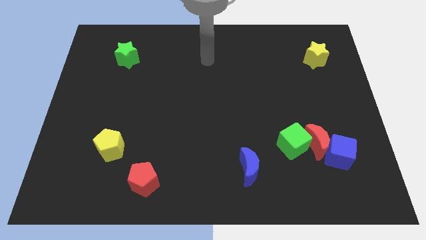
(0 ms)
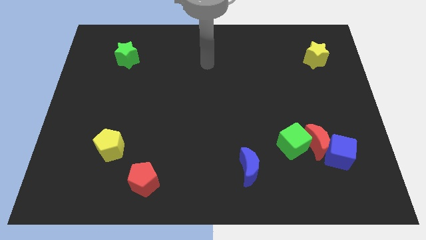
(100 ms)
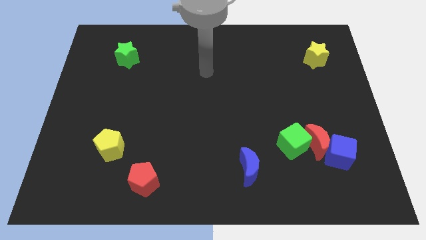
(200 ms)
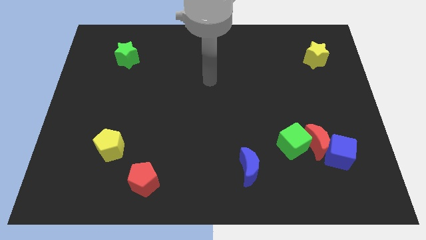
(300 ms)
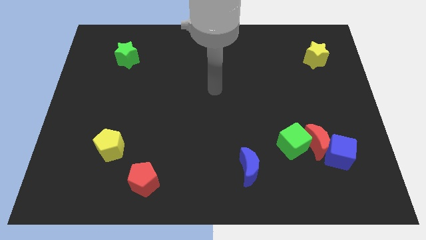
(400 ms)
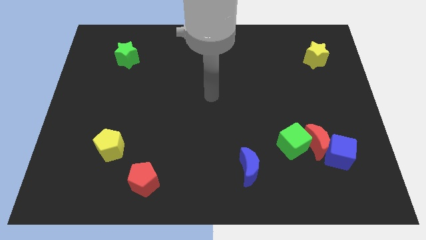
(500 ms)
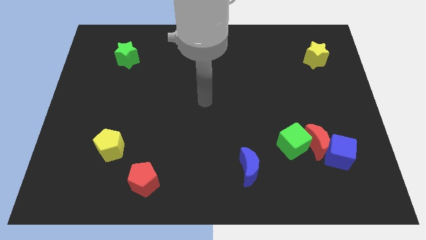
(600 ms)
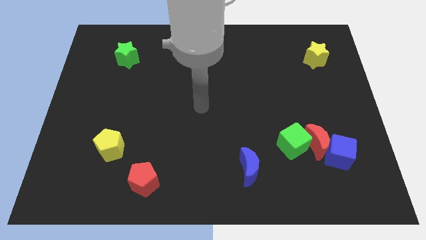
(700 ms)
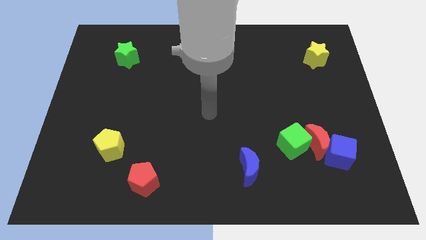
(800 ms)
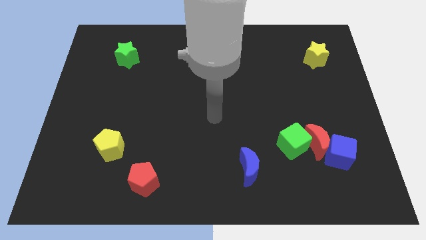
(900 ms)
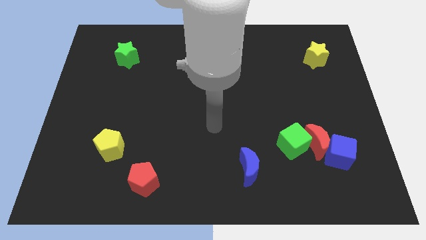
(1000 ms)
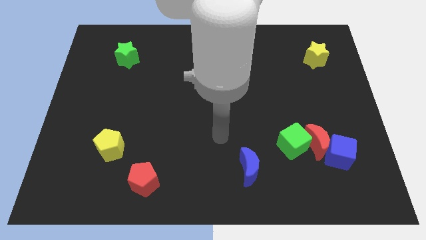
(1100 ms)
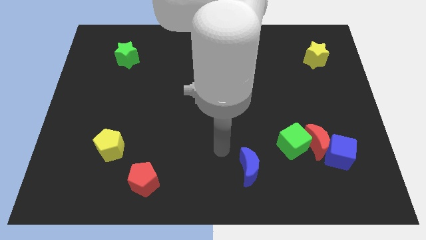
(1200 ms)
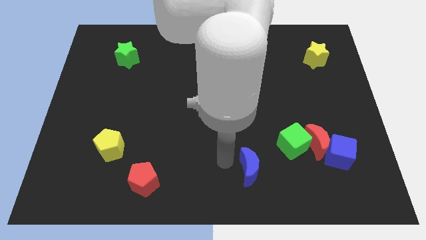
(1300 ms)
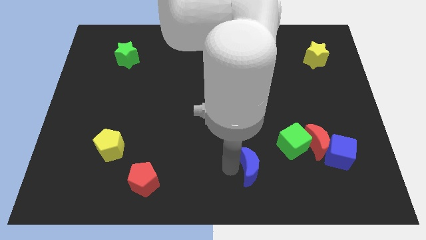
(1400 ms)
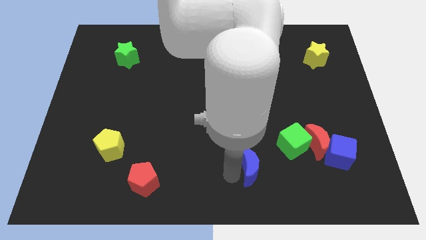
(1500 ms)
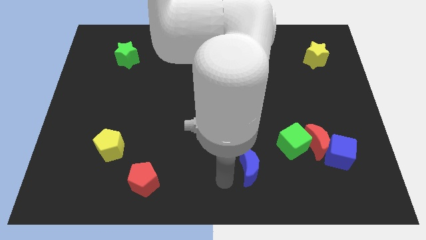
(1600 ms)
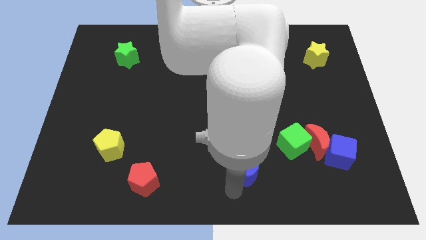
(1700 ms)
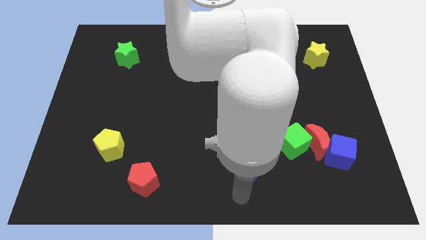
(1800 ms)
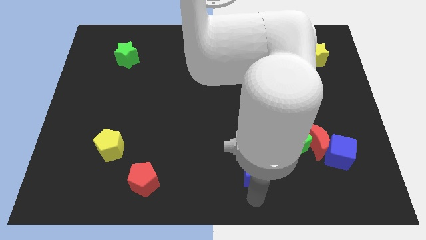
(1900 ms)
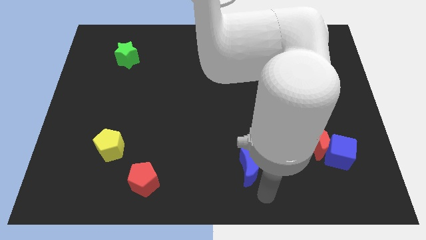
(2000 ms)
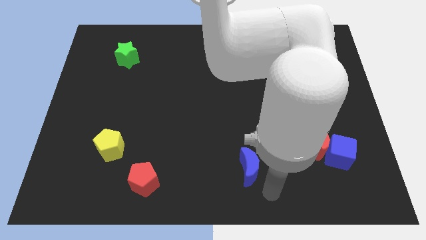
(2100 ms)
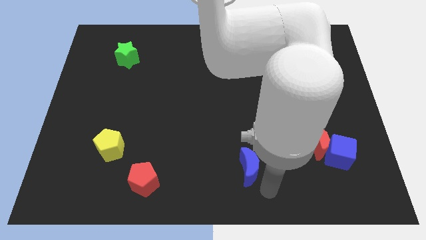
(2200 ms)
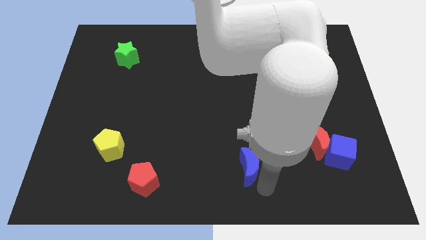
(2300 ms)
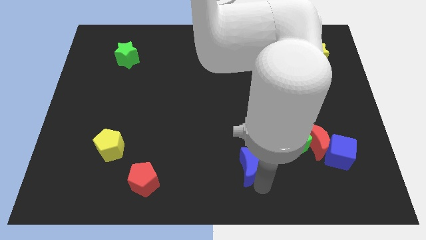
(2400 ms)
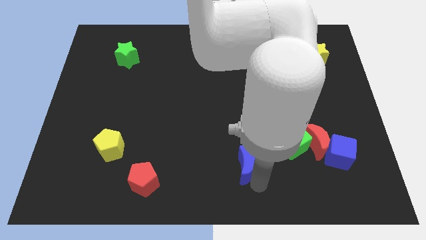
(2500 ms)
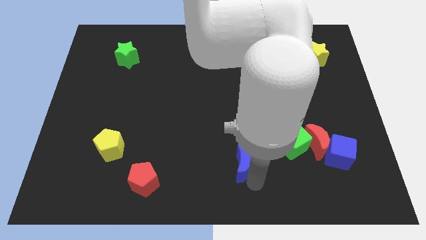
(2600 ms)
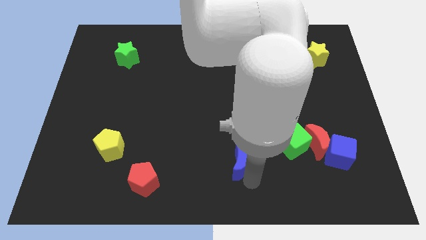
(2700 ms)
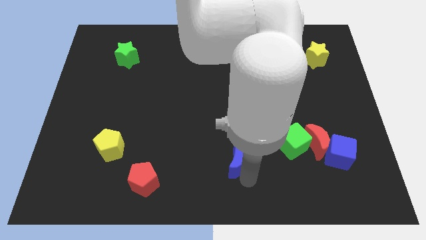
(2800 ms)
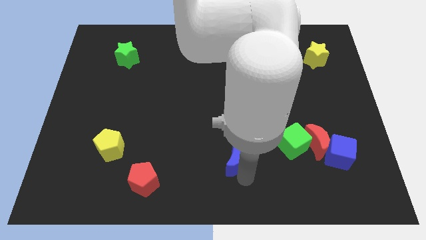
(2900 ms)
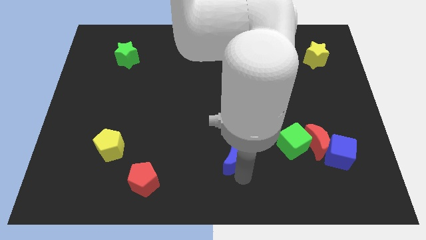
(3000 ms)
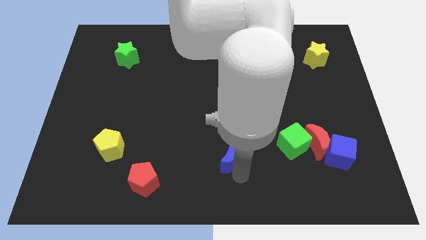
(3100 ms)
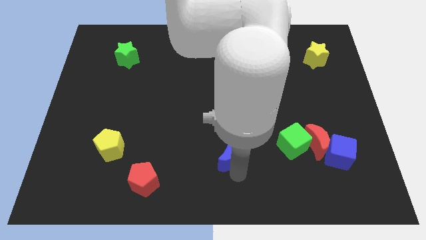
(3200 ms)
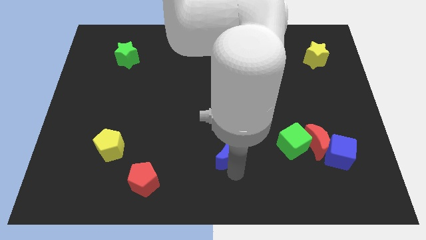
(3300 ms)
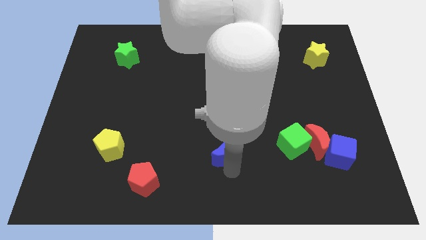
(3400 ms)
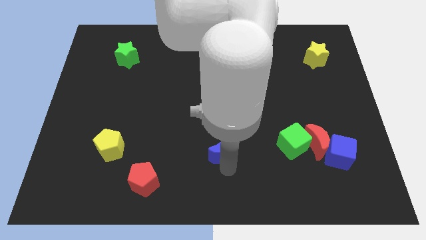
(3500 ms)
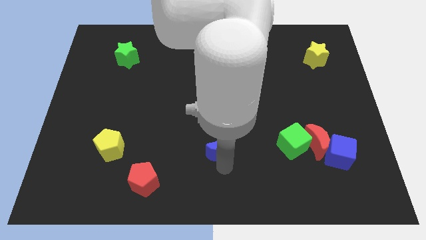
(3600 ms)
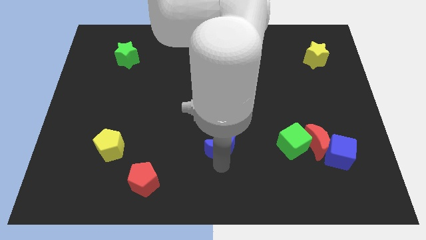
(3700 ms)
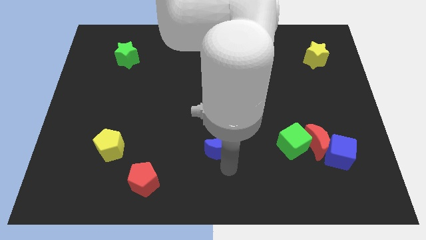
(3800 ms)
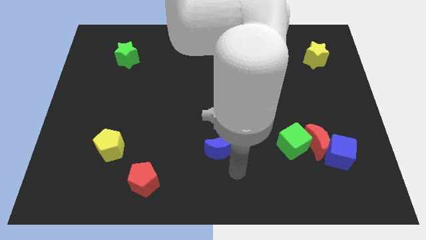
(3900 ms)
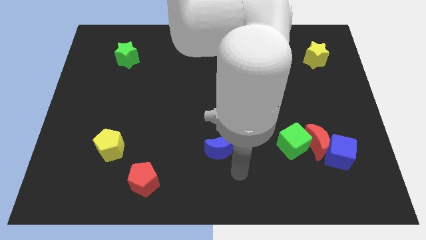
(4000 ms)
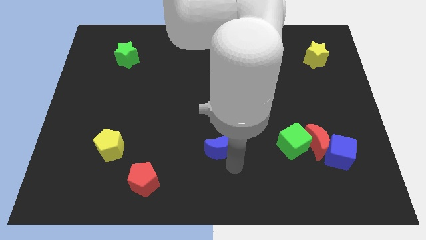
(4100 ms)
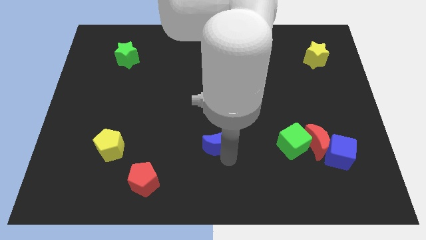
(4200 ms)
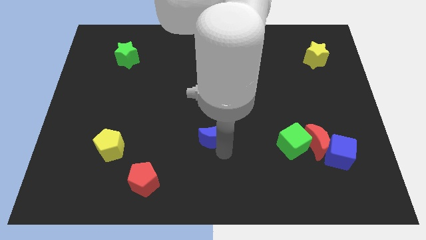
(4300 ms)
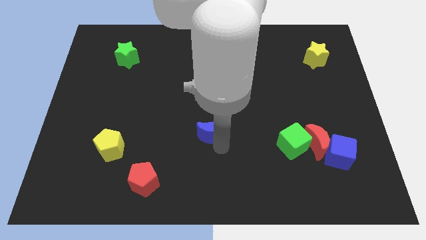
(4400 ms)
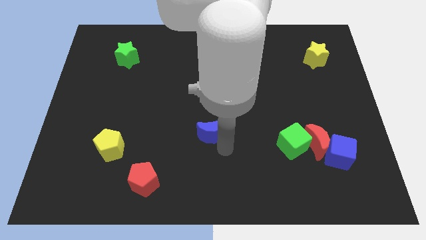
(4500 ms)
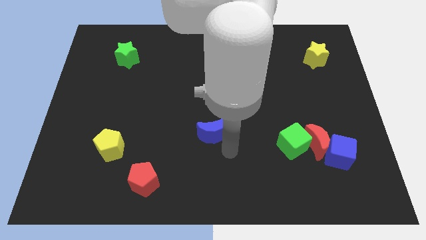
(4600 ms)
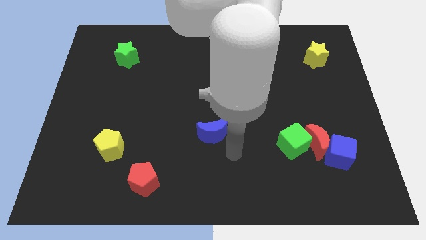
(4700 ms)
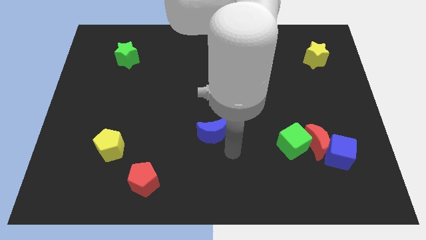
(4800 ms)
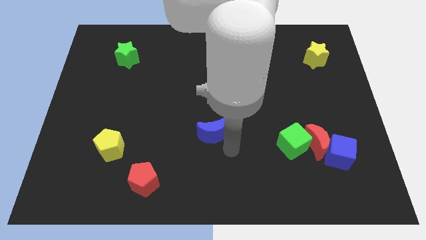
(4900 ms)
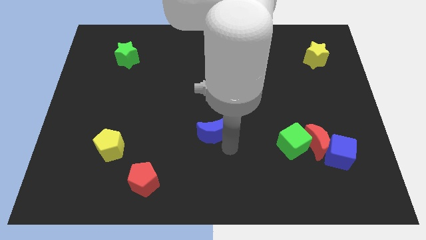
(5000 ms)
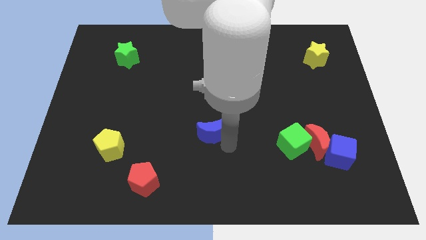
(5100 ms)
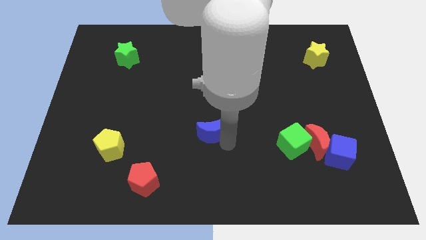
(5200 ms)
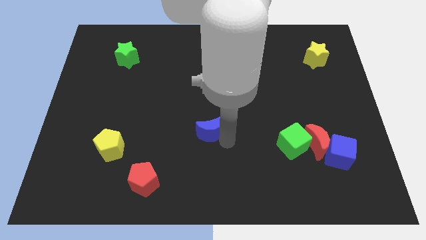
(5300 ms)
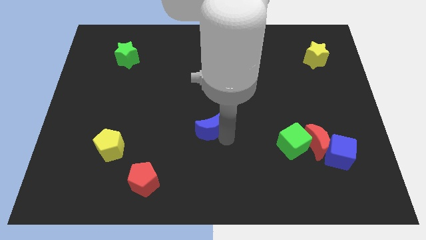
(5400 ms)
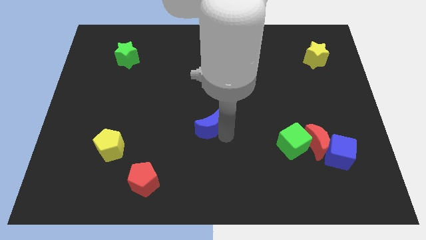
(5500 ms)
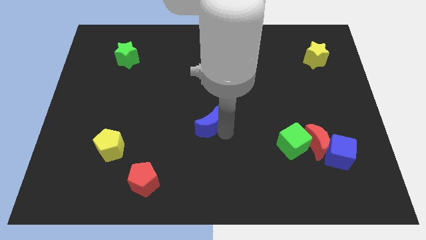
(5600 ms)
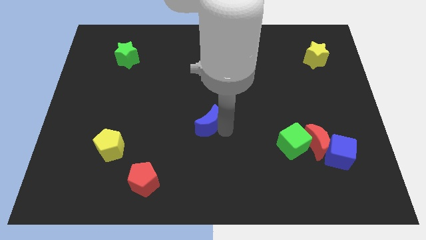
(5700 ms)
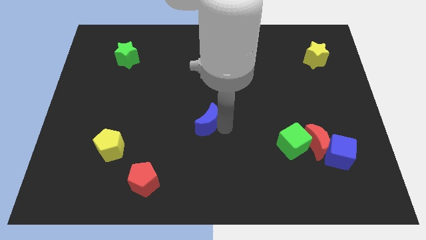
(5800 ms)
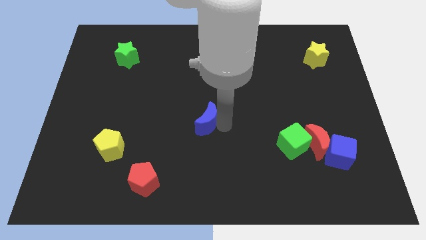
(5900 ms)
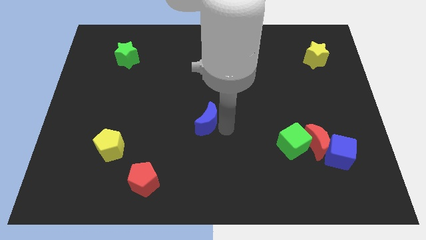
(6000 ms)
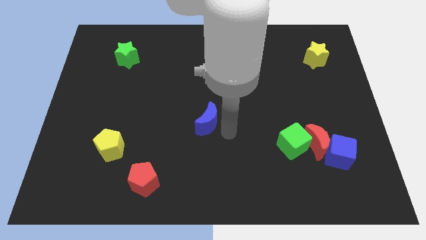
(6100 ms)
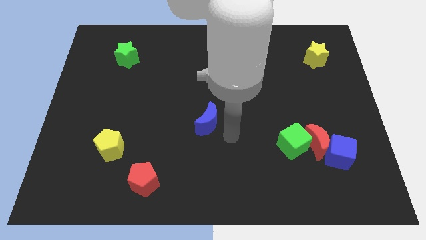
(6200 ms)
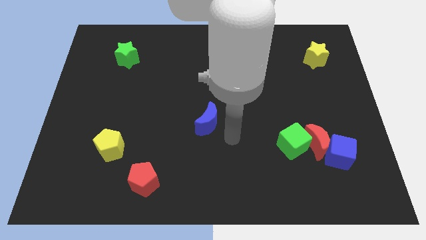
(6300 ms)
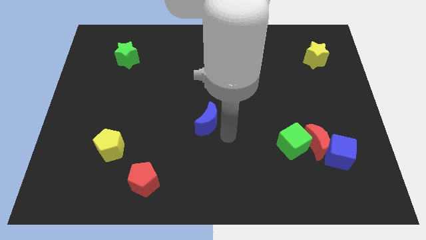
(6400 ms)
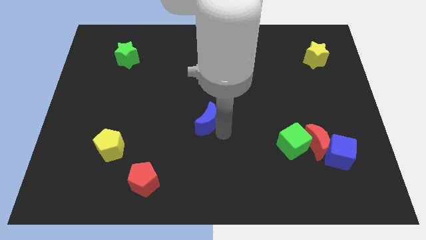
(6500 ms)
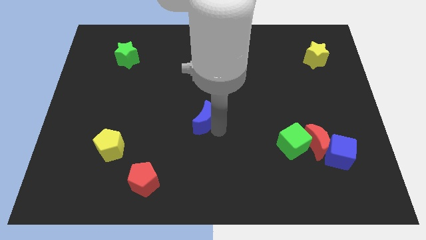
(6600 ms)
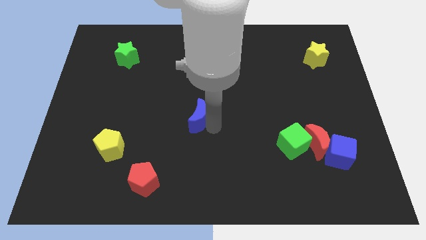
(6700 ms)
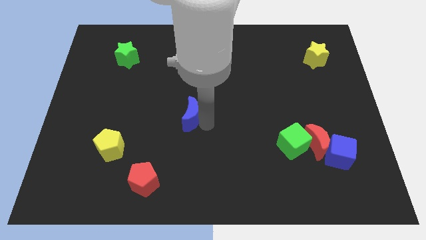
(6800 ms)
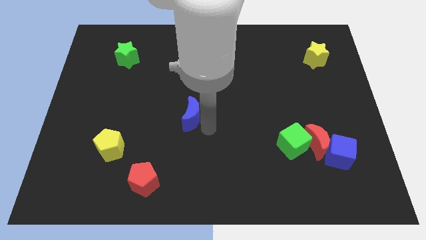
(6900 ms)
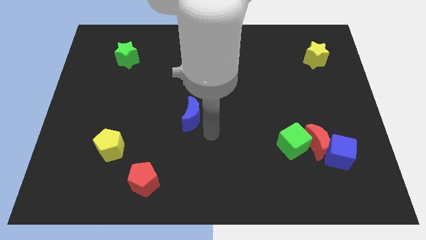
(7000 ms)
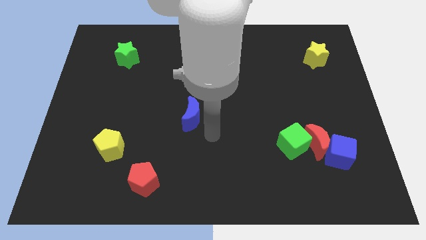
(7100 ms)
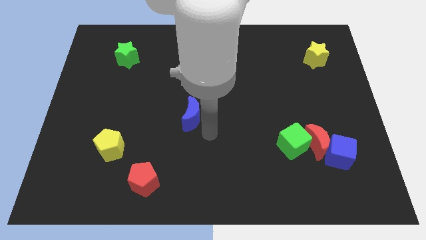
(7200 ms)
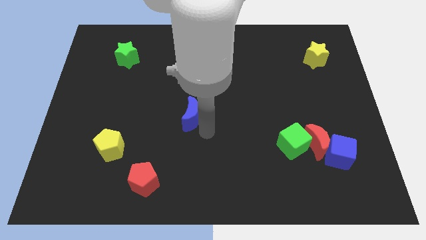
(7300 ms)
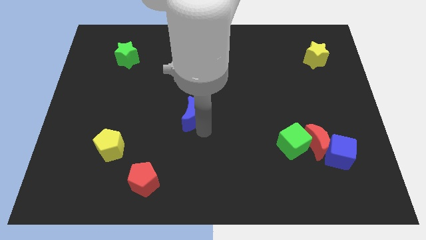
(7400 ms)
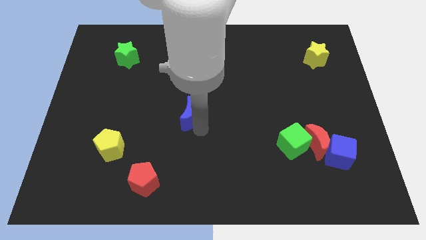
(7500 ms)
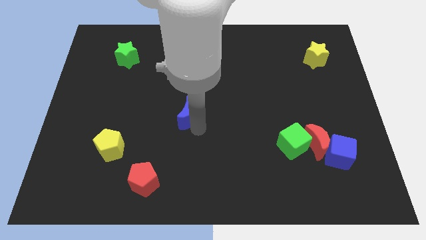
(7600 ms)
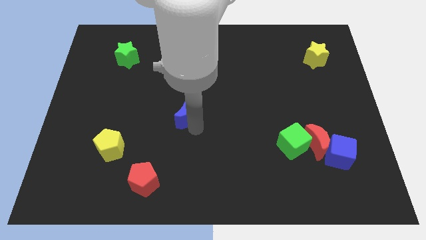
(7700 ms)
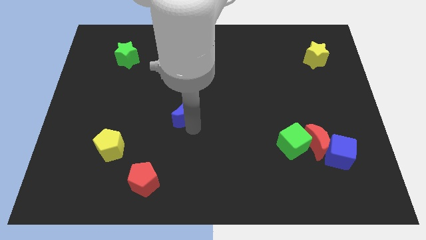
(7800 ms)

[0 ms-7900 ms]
slide the blue moon diagonally upwards and left
